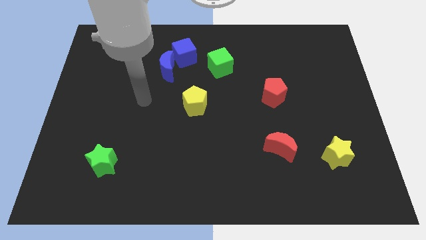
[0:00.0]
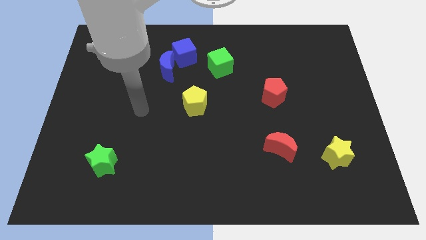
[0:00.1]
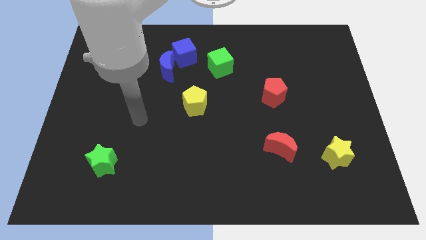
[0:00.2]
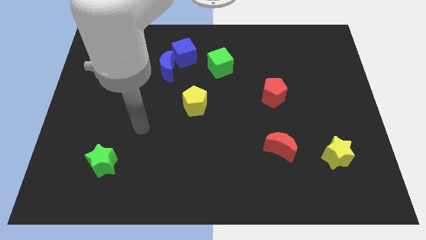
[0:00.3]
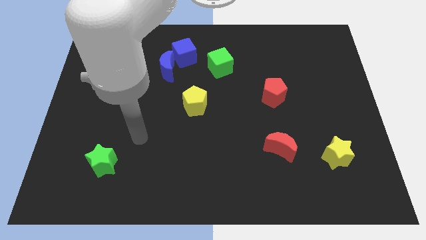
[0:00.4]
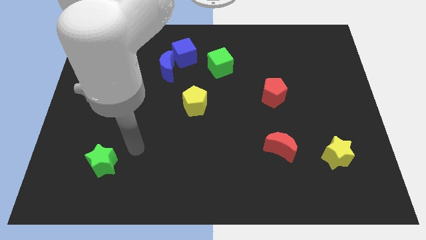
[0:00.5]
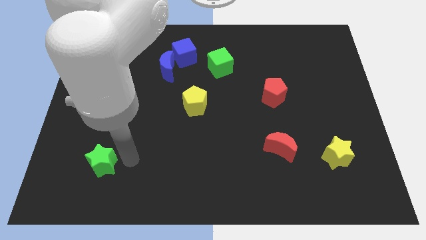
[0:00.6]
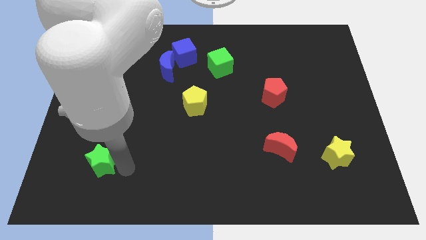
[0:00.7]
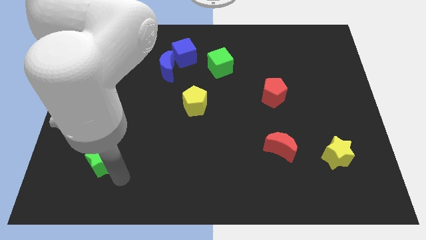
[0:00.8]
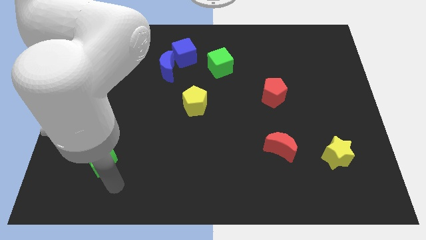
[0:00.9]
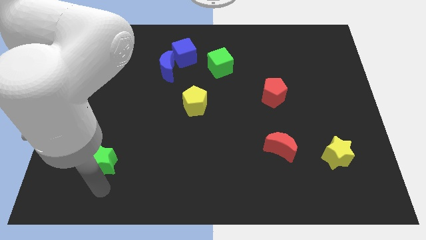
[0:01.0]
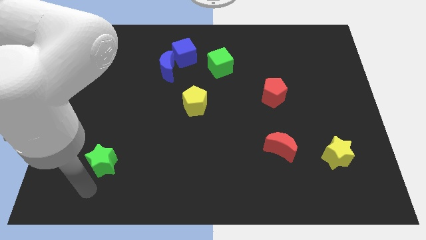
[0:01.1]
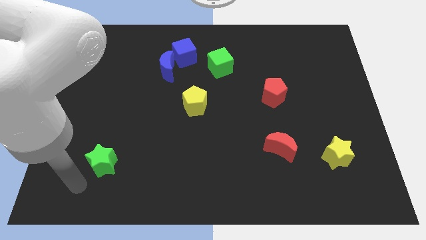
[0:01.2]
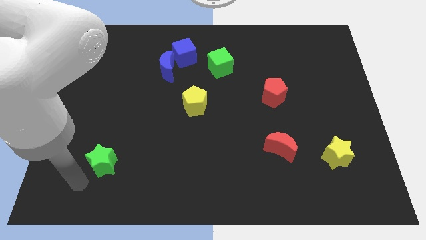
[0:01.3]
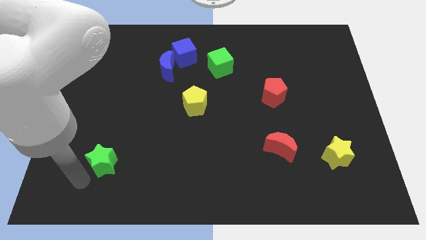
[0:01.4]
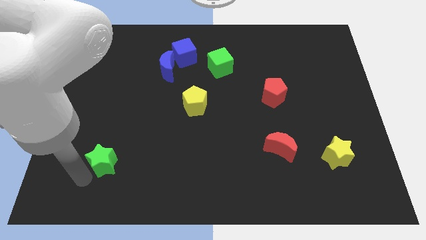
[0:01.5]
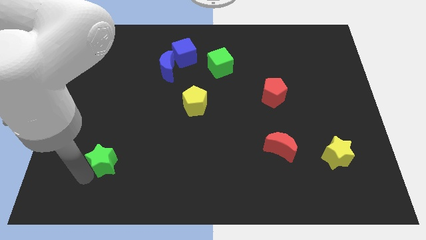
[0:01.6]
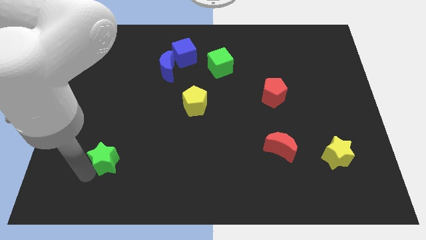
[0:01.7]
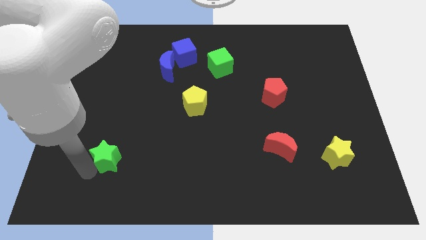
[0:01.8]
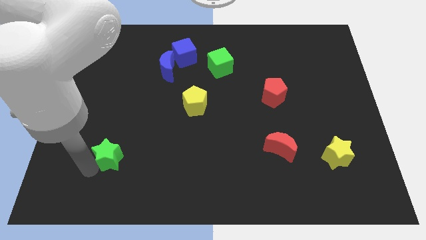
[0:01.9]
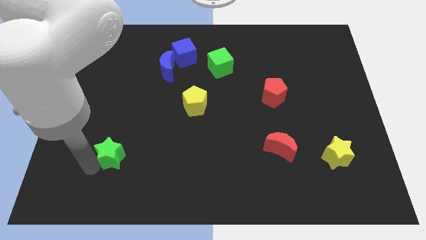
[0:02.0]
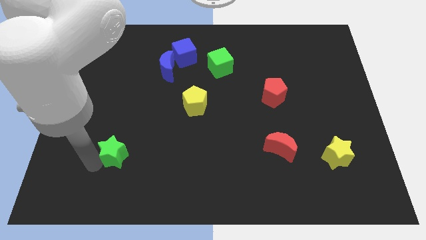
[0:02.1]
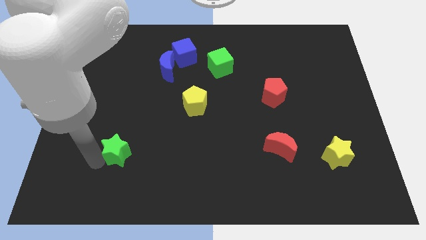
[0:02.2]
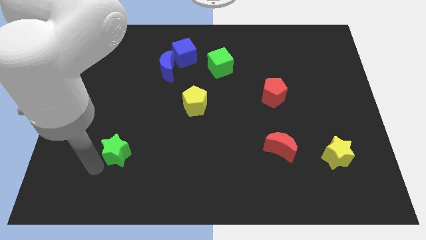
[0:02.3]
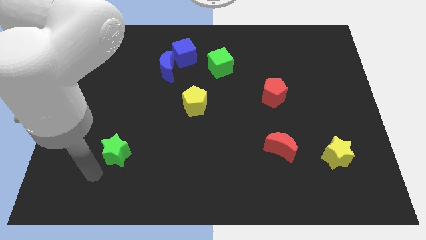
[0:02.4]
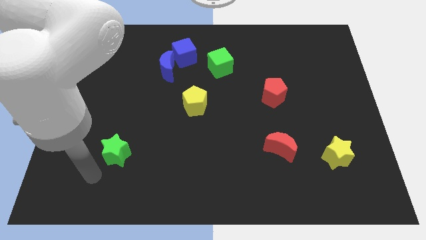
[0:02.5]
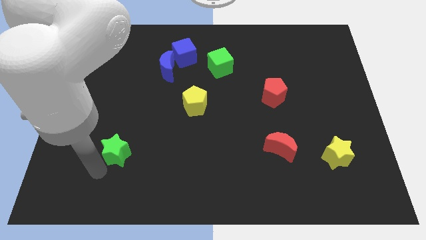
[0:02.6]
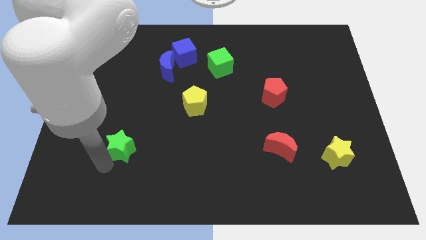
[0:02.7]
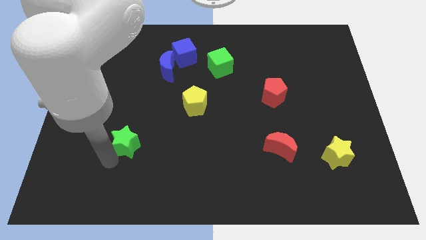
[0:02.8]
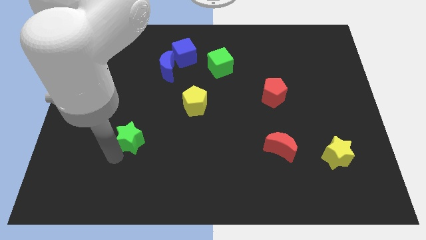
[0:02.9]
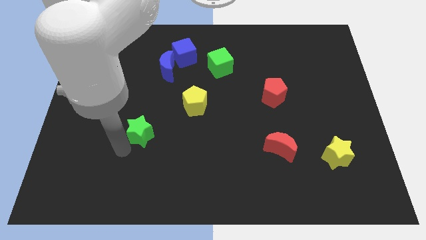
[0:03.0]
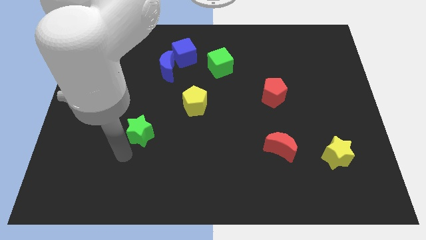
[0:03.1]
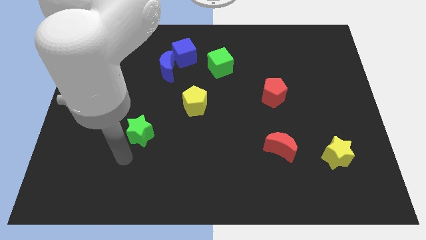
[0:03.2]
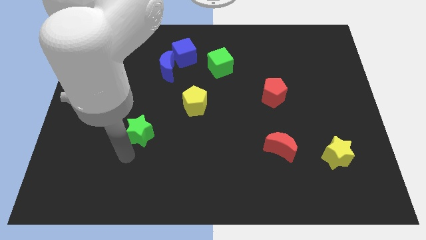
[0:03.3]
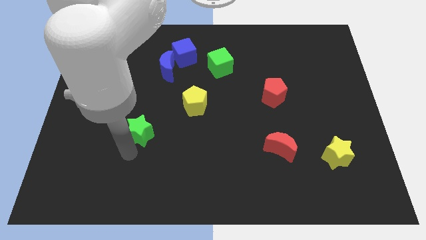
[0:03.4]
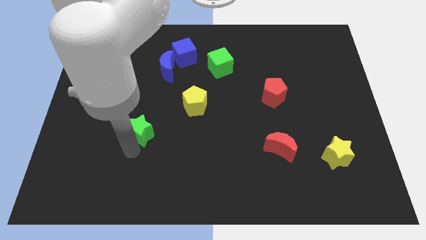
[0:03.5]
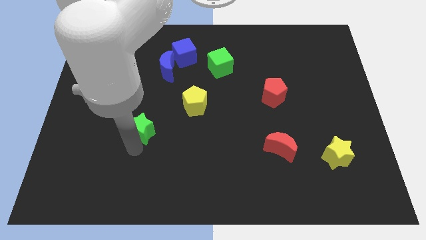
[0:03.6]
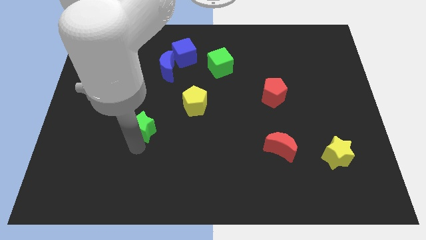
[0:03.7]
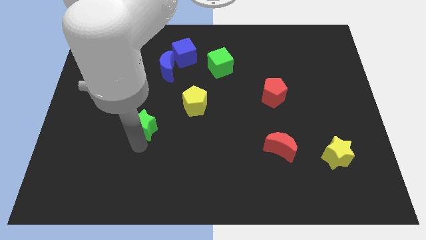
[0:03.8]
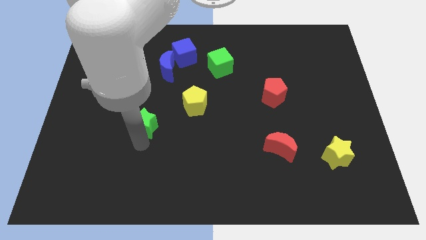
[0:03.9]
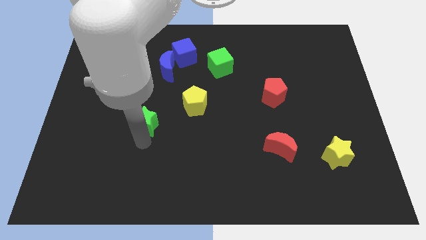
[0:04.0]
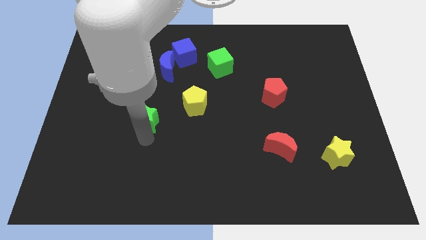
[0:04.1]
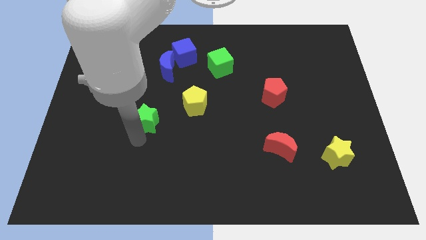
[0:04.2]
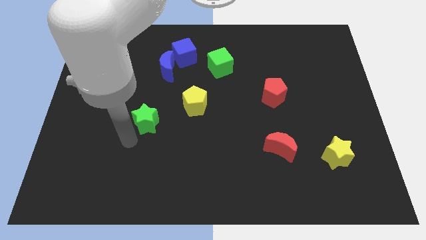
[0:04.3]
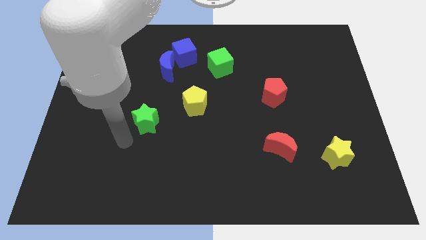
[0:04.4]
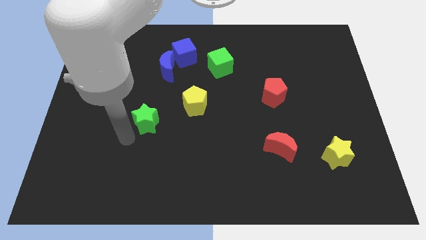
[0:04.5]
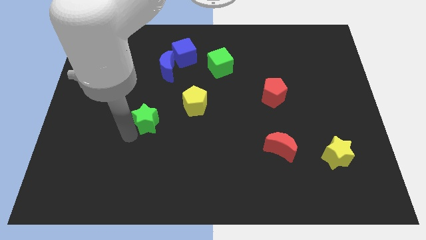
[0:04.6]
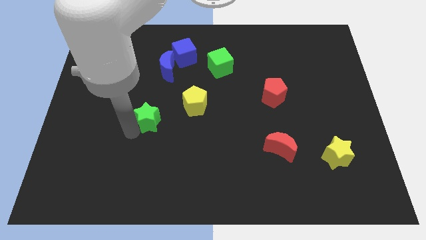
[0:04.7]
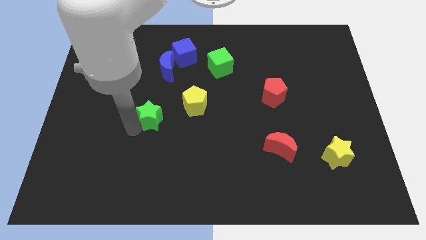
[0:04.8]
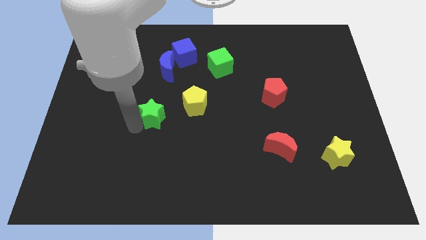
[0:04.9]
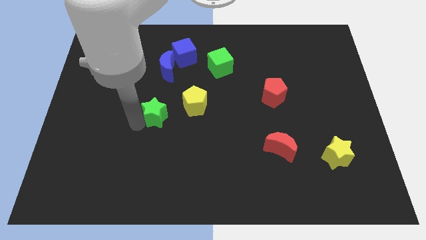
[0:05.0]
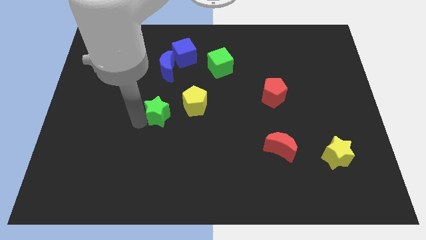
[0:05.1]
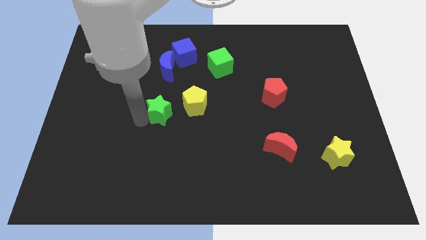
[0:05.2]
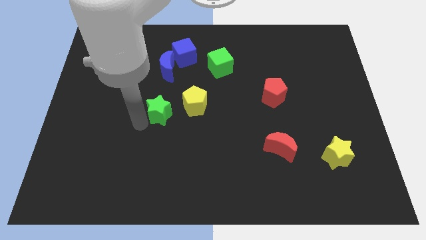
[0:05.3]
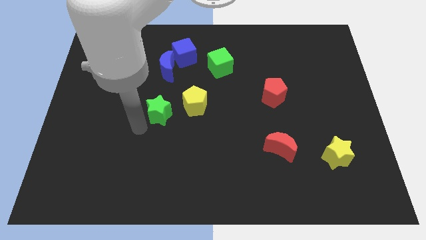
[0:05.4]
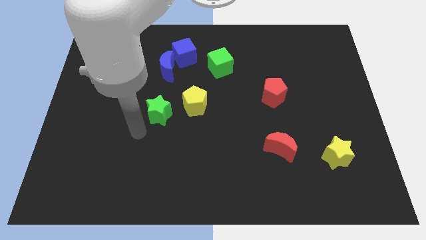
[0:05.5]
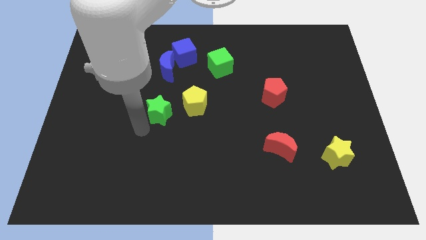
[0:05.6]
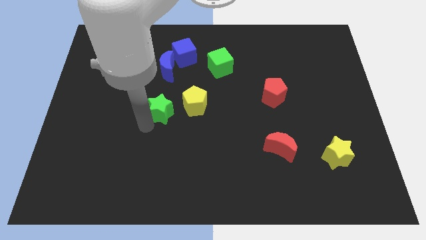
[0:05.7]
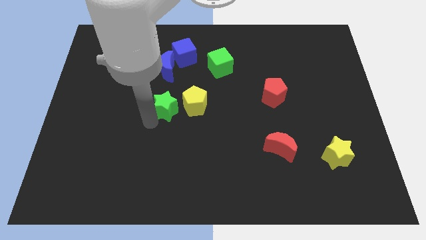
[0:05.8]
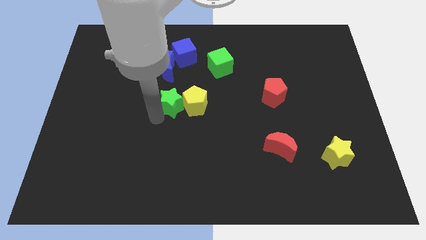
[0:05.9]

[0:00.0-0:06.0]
slide the green star up and to the right

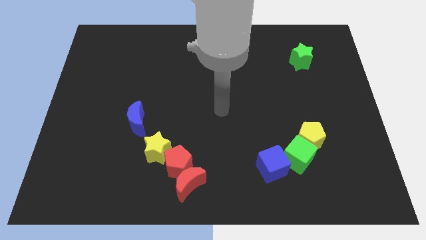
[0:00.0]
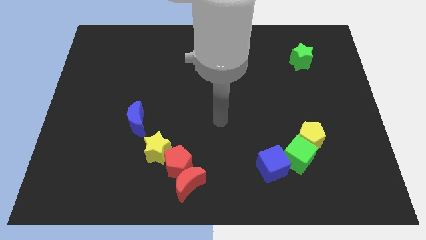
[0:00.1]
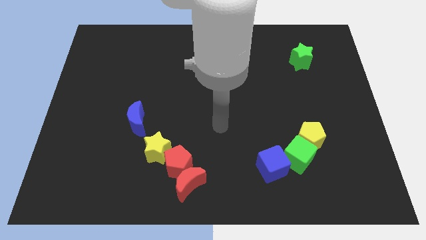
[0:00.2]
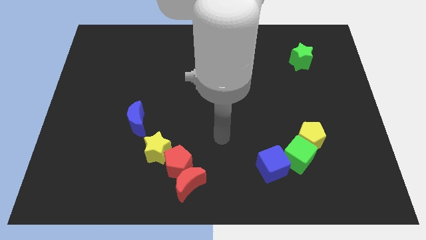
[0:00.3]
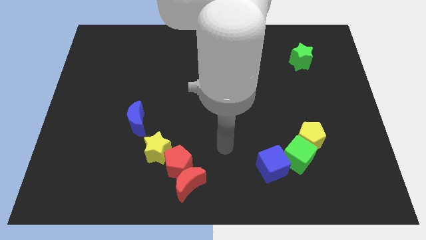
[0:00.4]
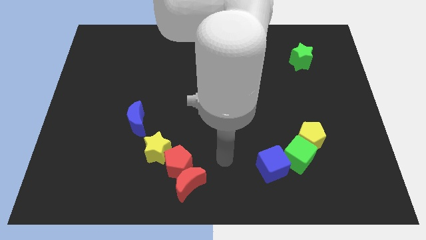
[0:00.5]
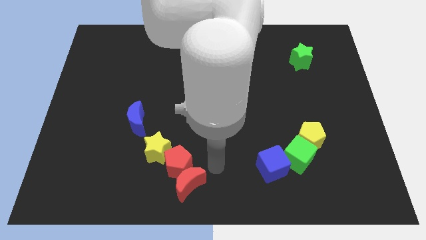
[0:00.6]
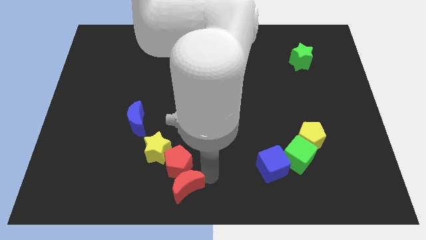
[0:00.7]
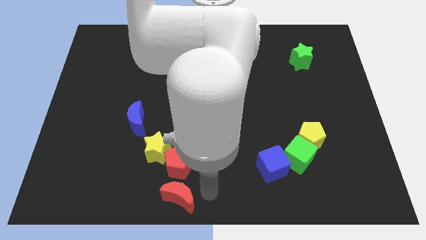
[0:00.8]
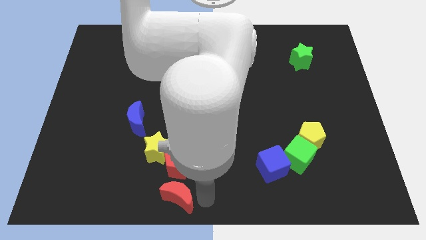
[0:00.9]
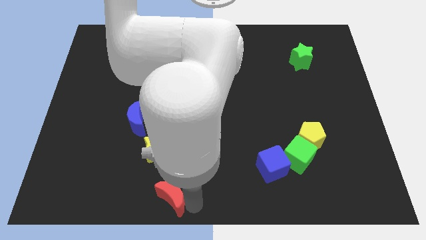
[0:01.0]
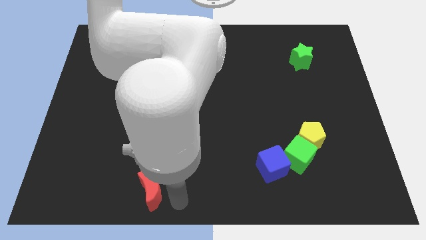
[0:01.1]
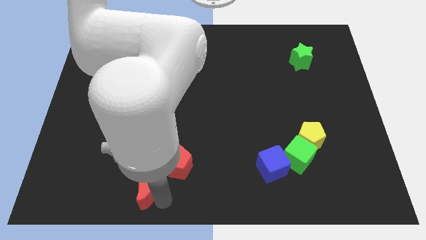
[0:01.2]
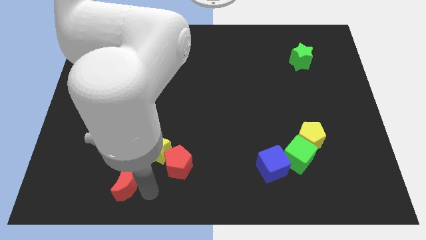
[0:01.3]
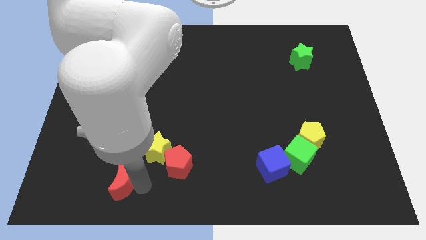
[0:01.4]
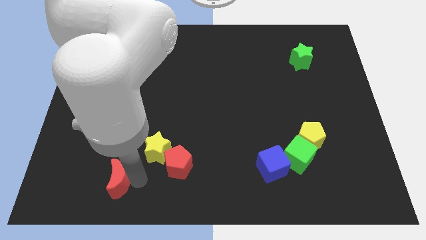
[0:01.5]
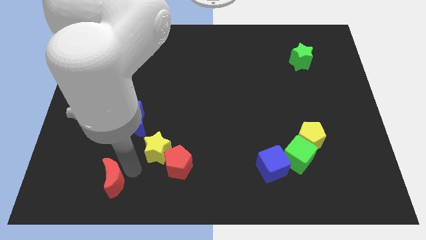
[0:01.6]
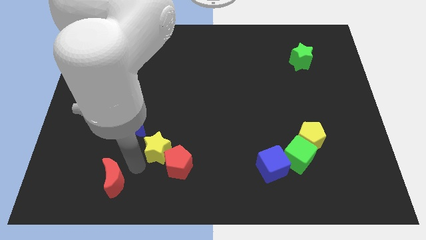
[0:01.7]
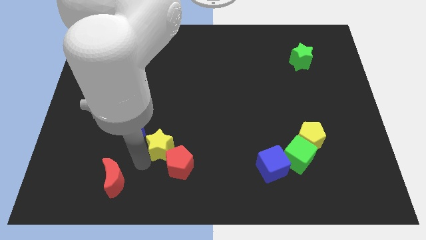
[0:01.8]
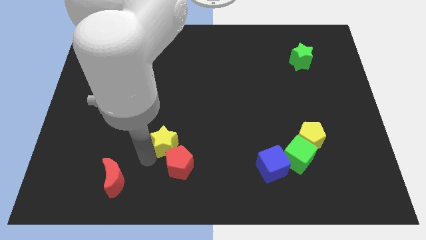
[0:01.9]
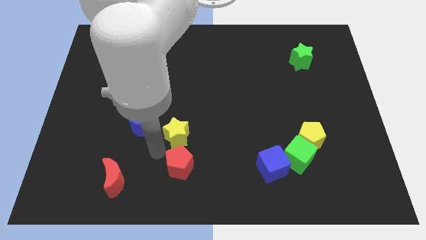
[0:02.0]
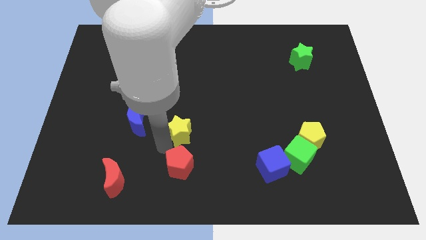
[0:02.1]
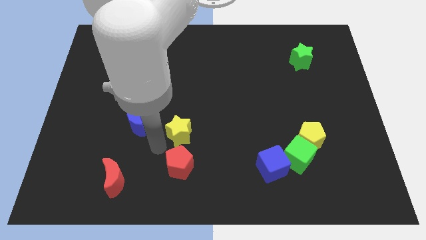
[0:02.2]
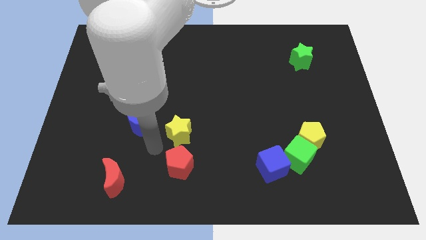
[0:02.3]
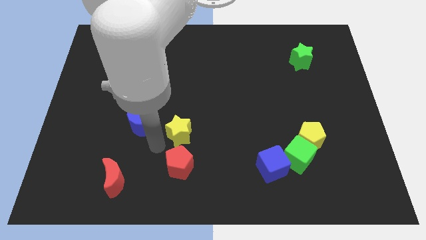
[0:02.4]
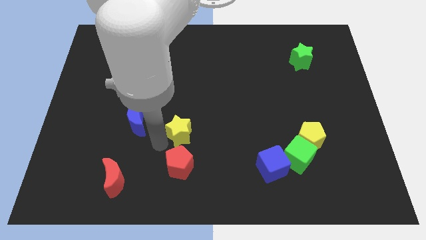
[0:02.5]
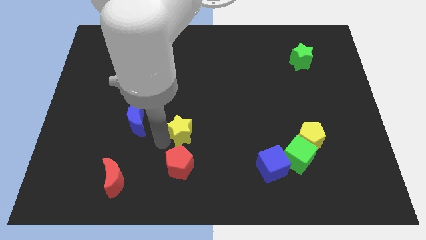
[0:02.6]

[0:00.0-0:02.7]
slightly slide the yellow star diagonally up and right
